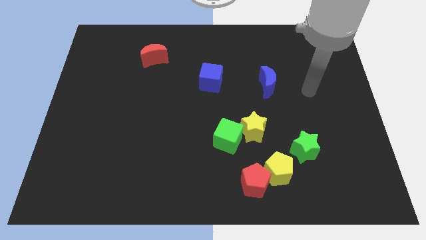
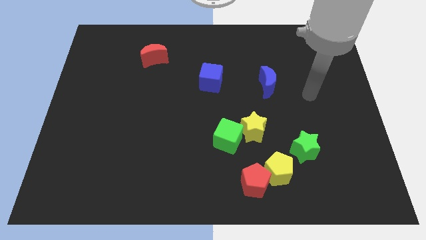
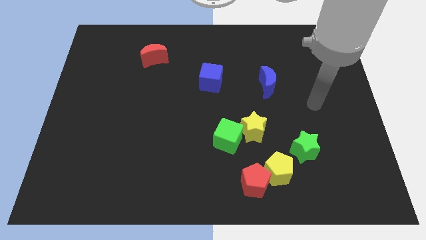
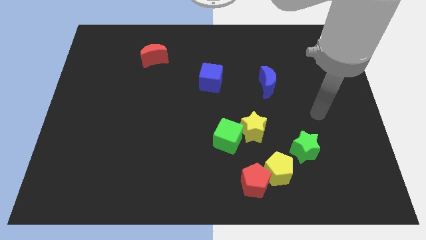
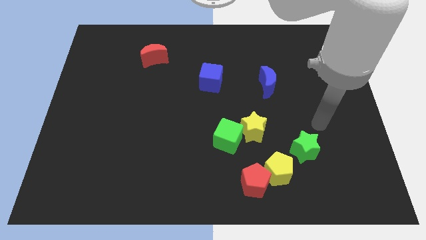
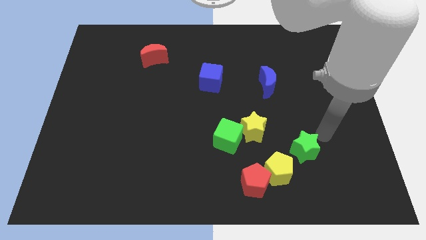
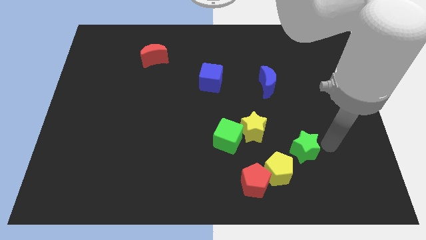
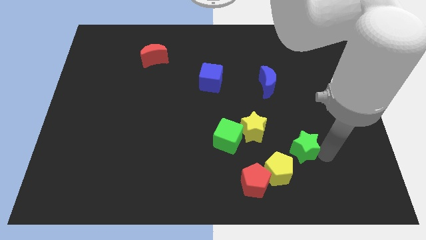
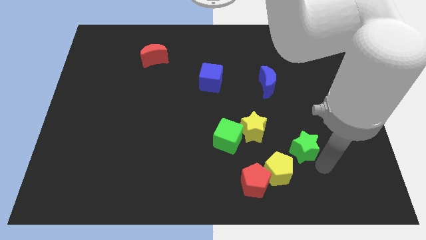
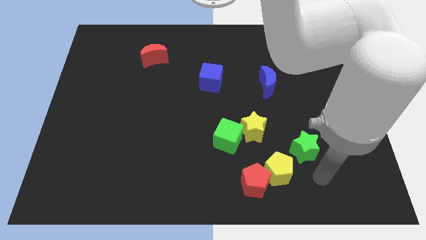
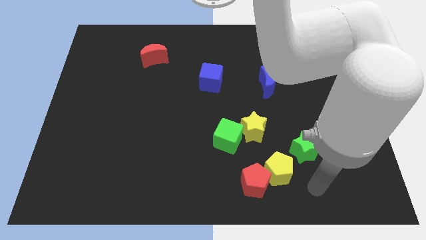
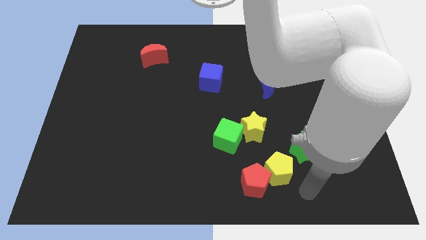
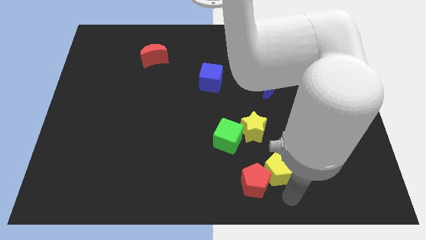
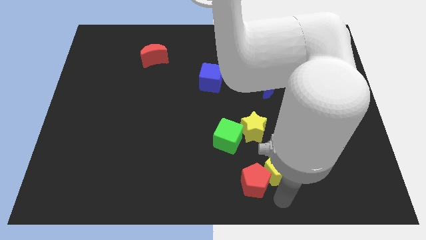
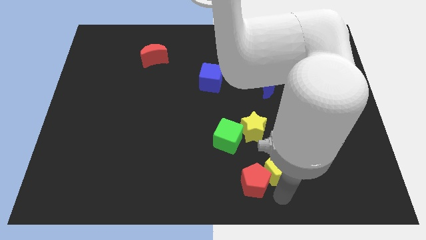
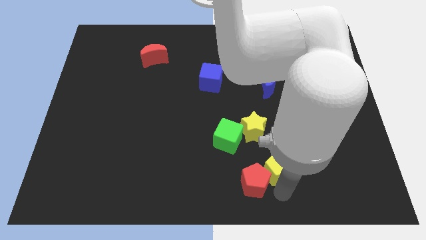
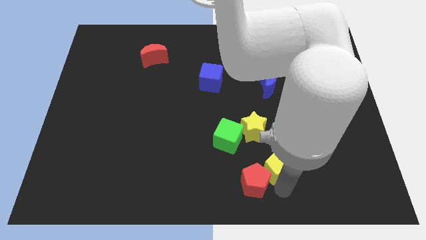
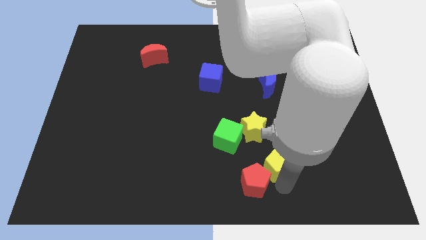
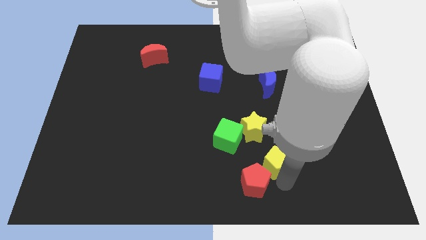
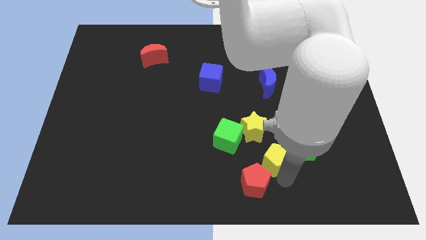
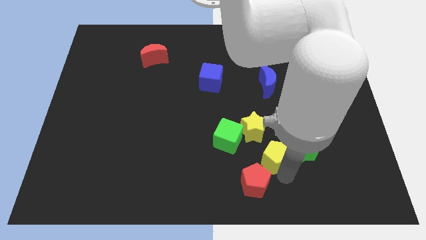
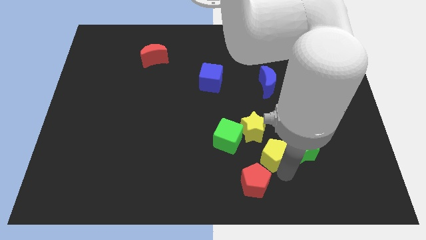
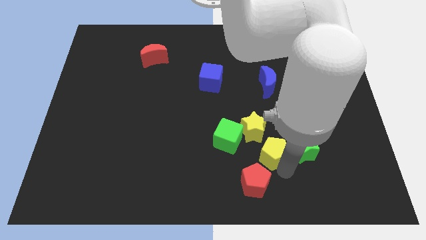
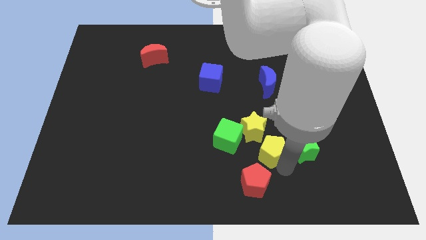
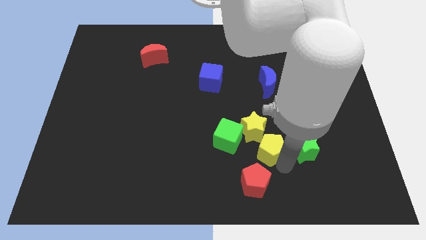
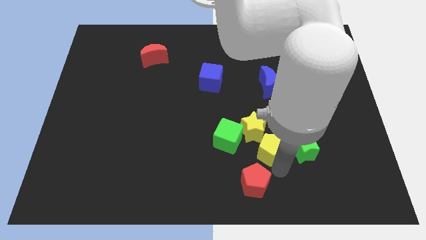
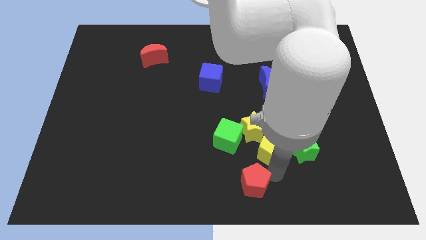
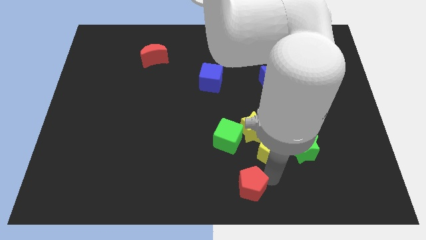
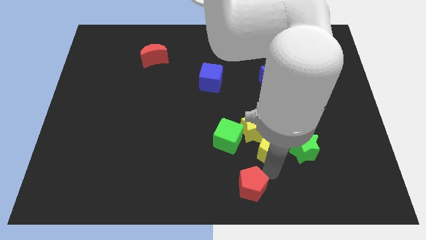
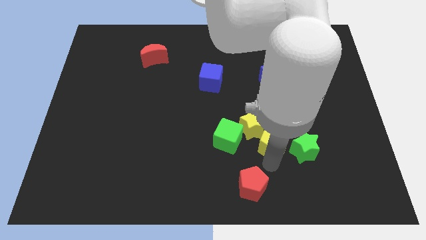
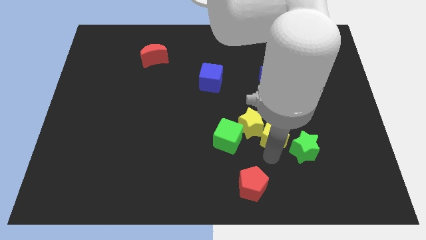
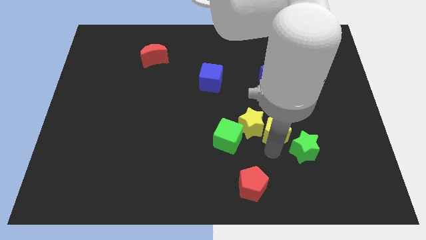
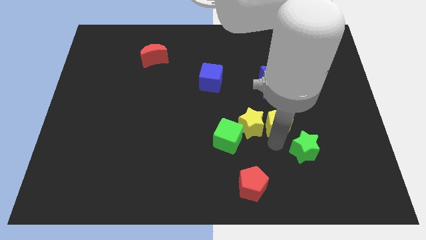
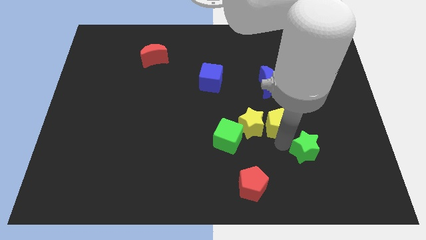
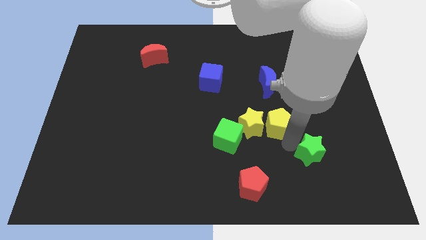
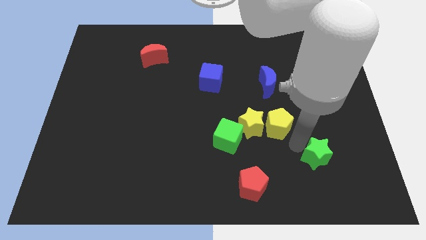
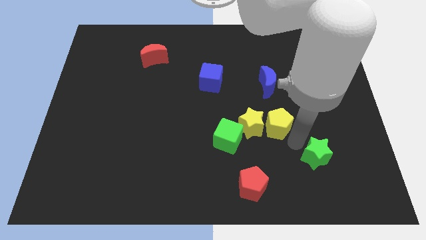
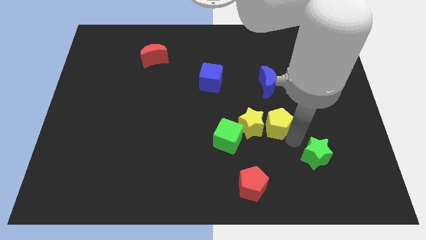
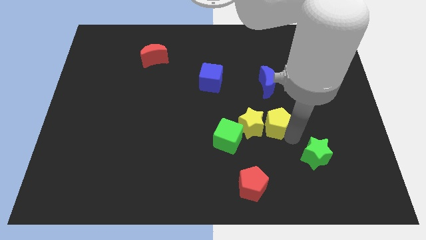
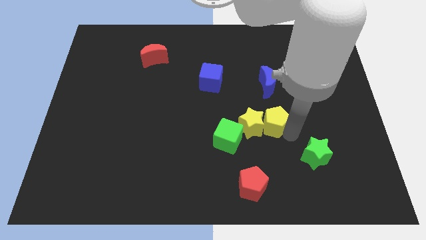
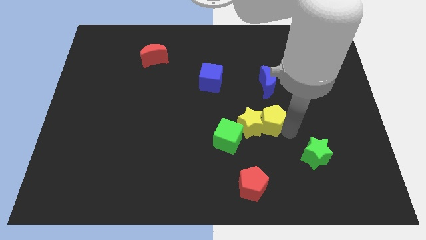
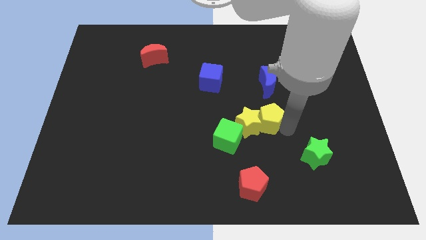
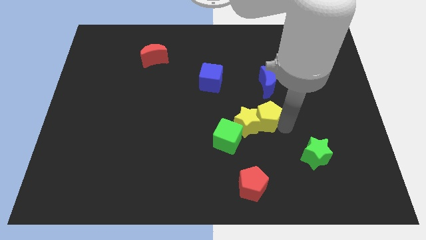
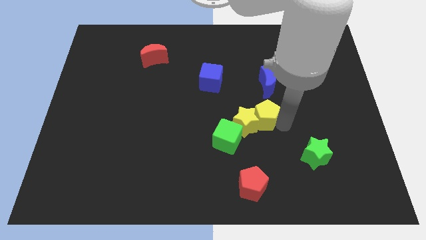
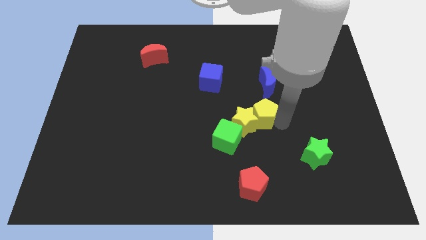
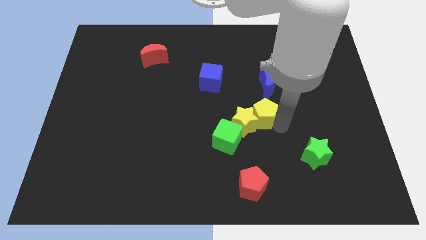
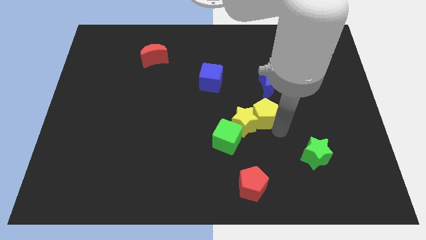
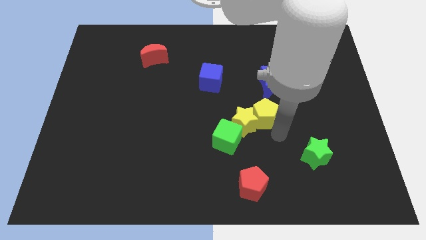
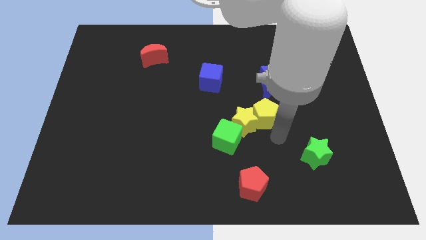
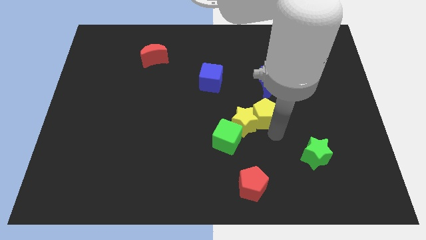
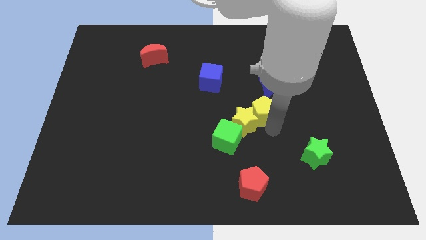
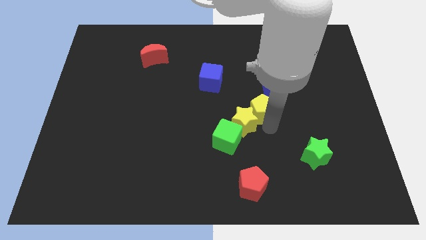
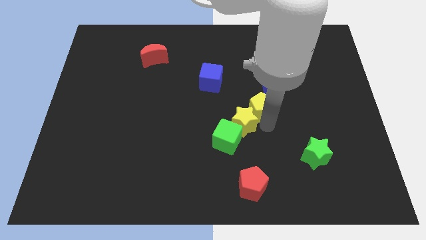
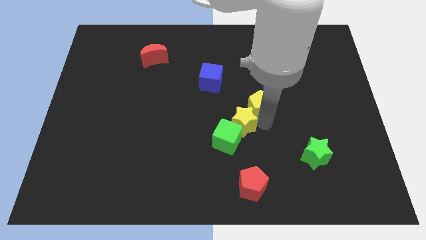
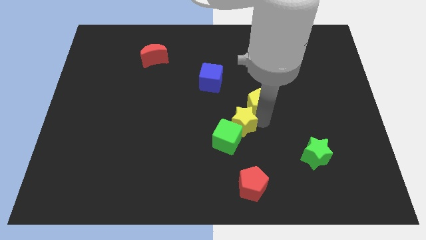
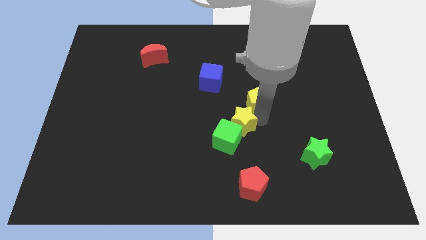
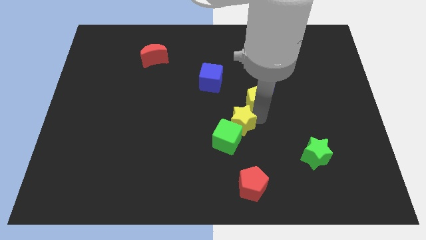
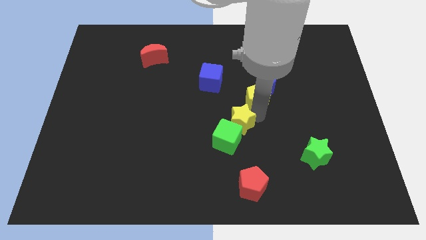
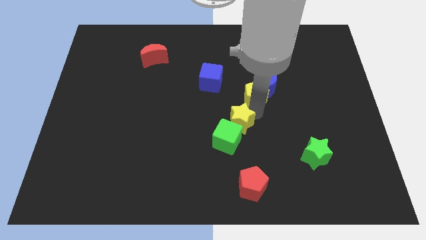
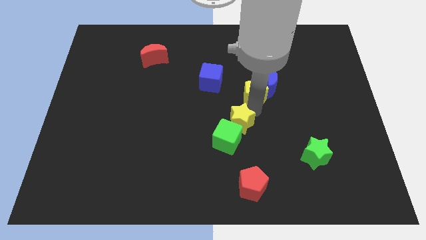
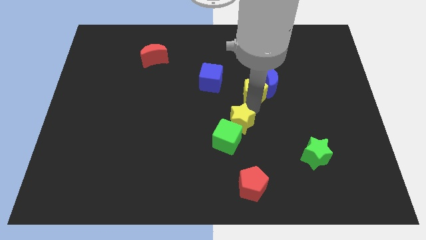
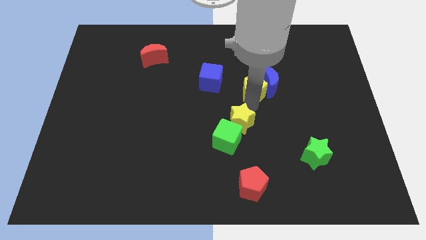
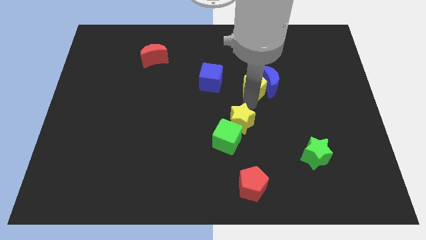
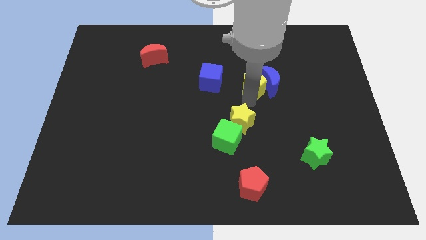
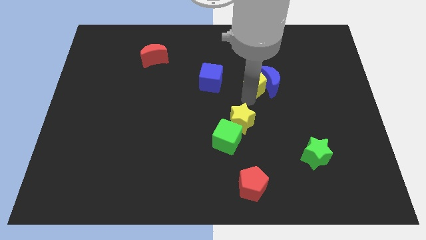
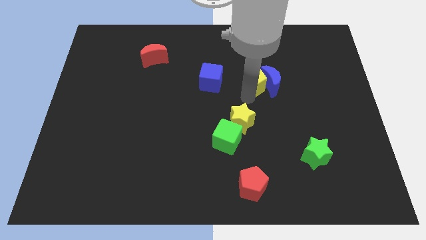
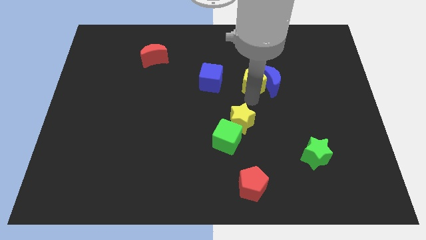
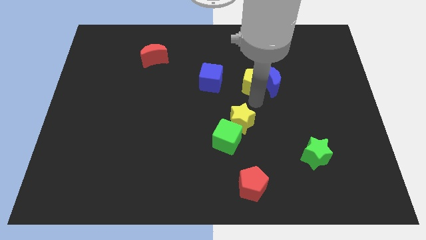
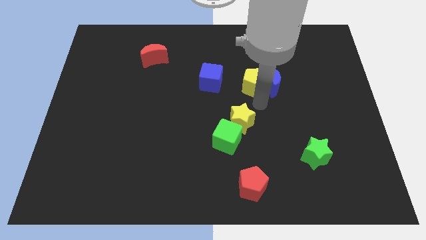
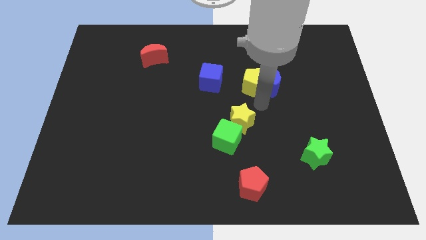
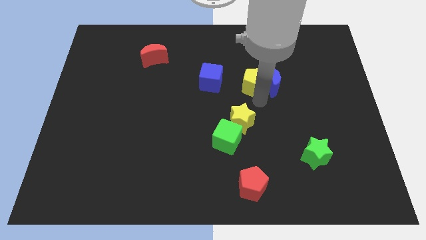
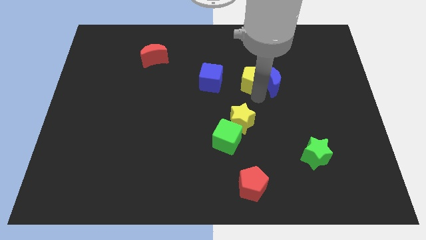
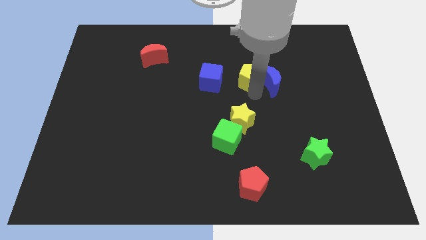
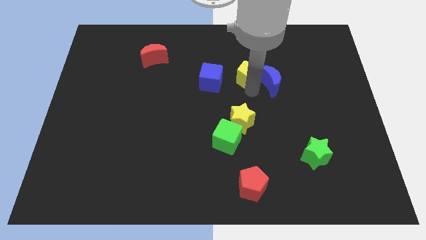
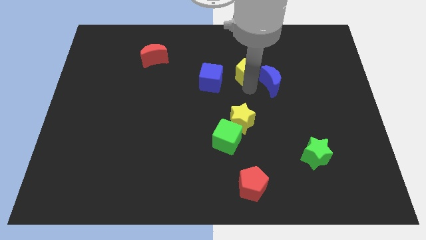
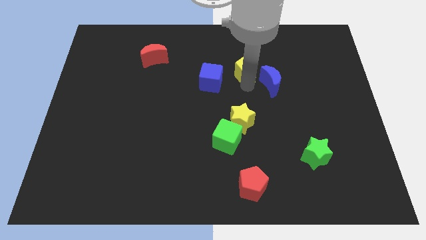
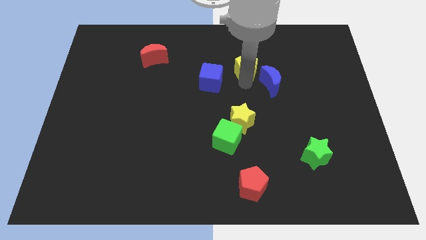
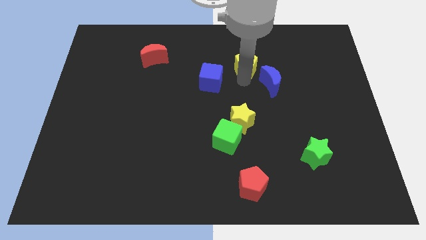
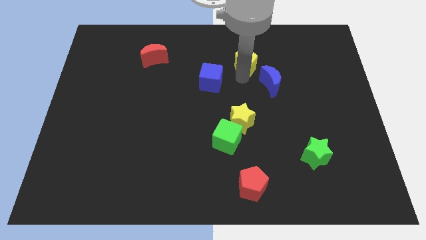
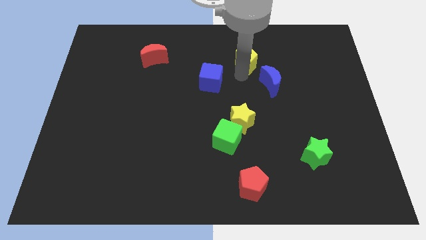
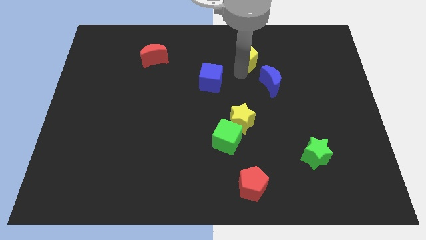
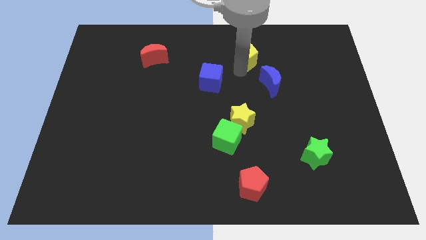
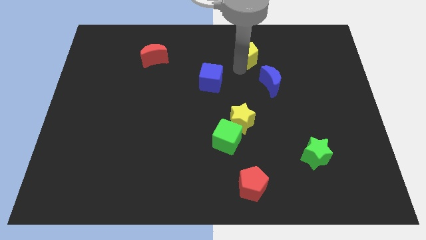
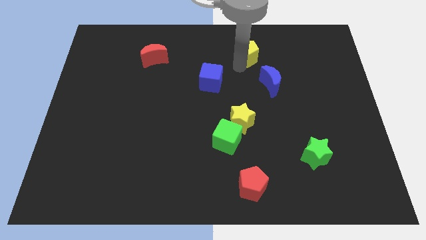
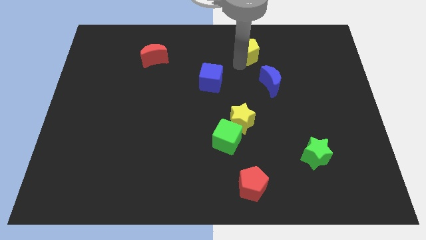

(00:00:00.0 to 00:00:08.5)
push the yellow pentagon to the top side of the blue moon
